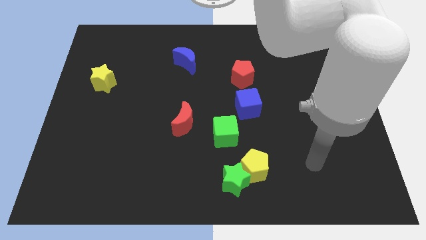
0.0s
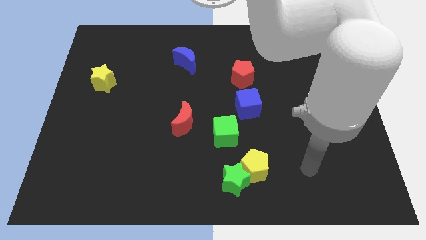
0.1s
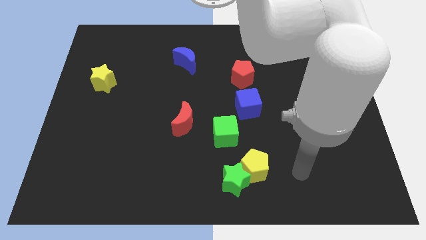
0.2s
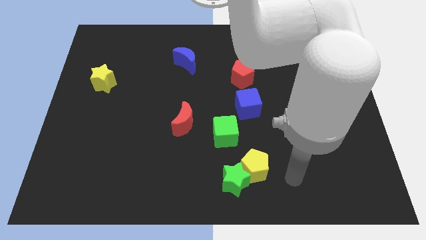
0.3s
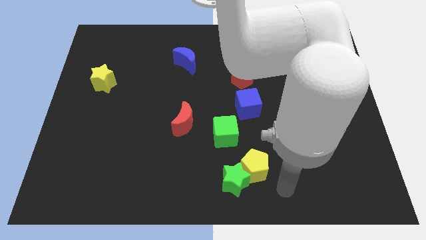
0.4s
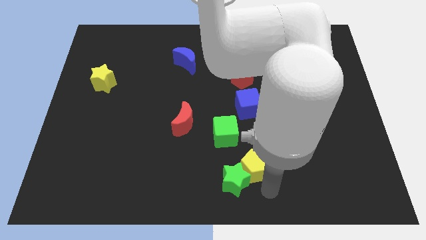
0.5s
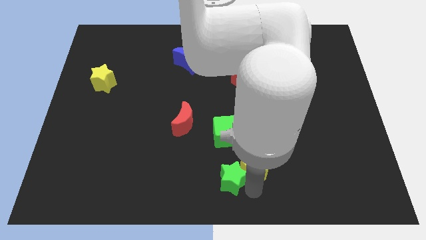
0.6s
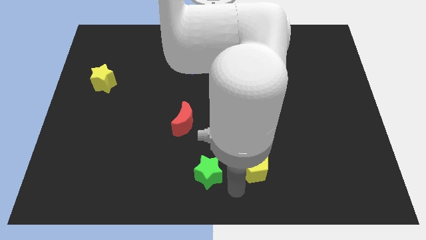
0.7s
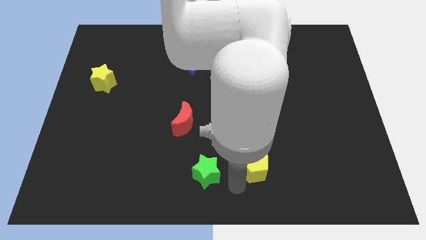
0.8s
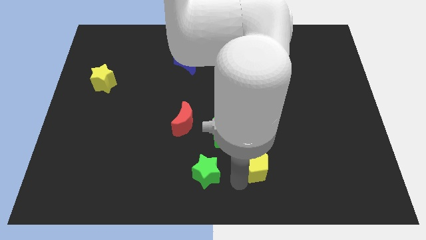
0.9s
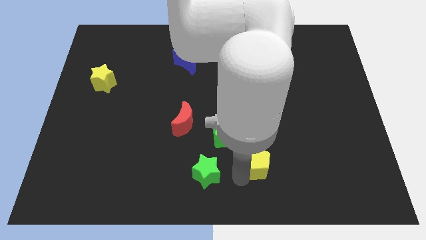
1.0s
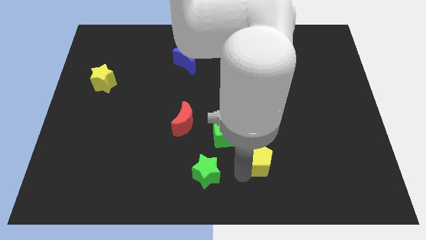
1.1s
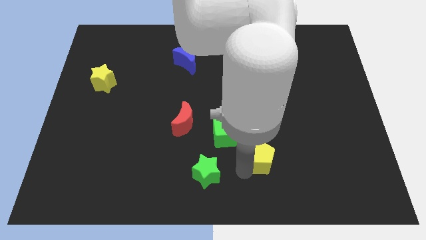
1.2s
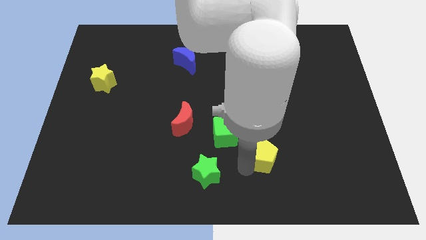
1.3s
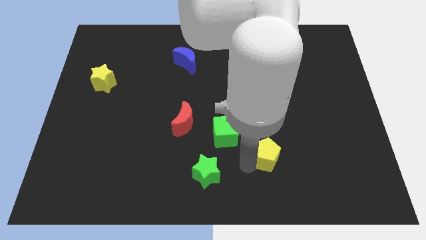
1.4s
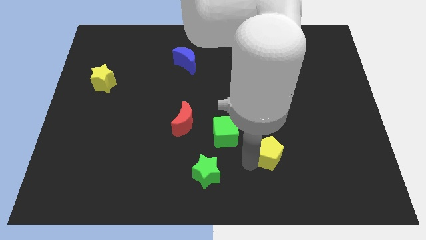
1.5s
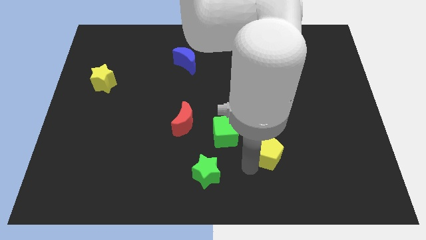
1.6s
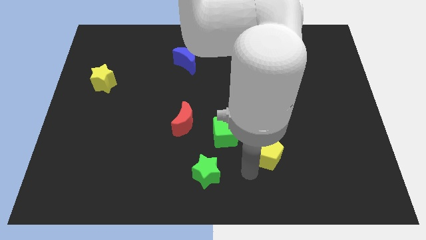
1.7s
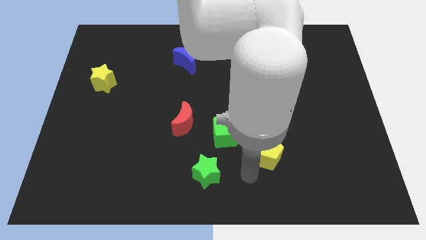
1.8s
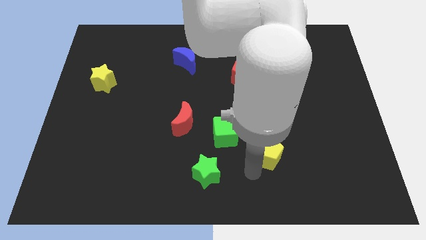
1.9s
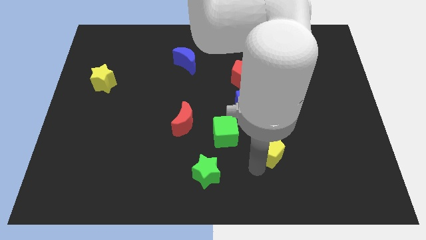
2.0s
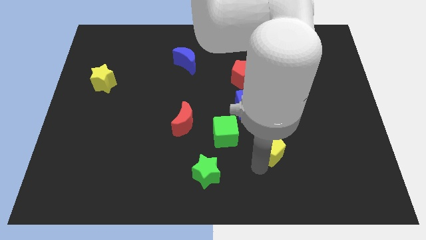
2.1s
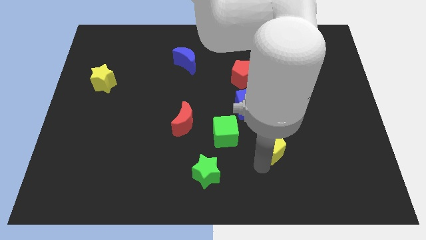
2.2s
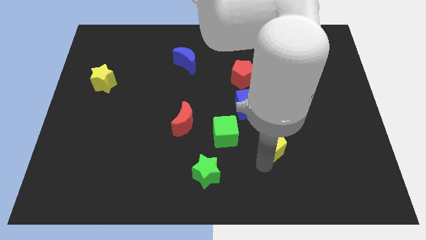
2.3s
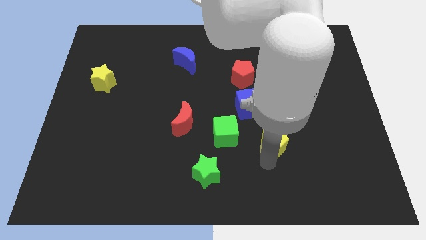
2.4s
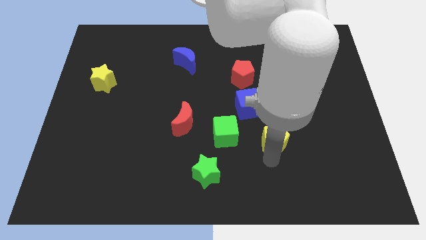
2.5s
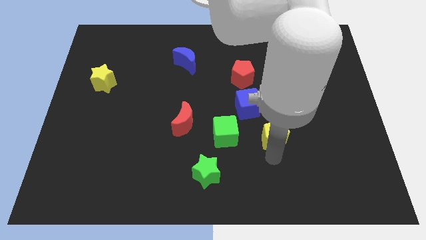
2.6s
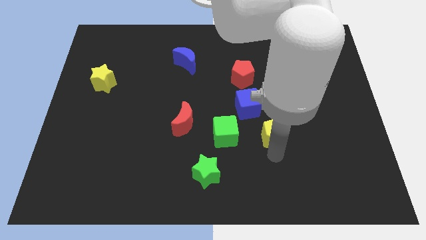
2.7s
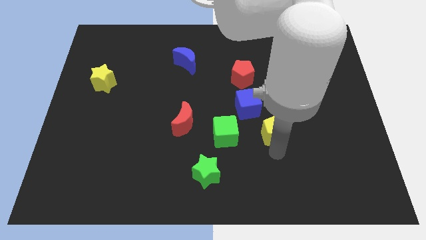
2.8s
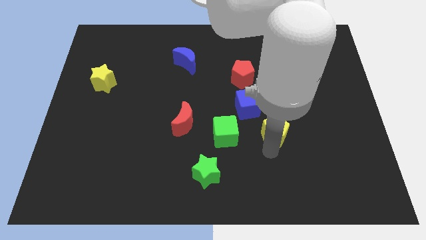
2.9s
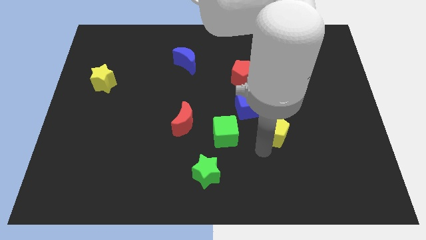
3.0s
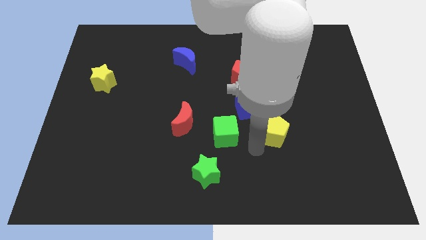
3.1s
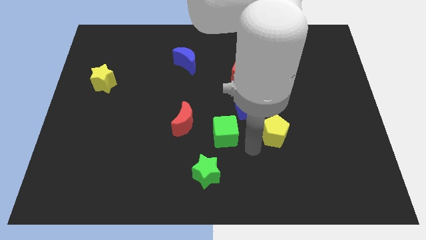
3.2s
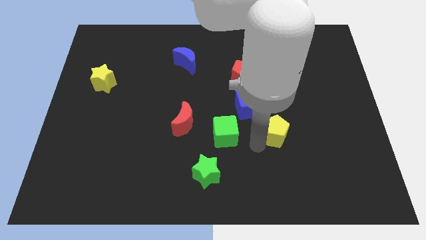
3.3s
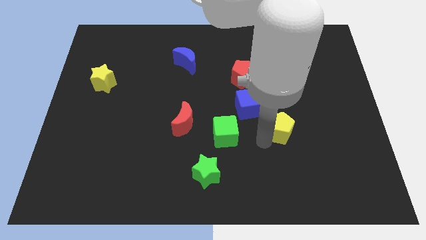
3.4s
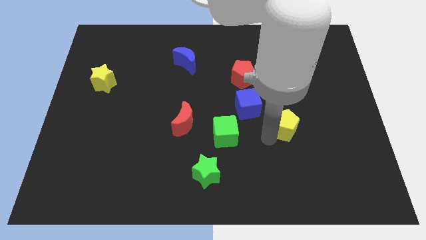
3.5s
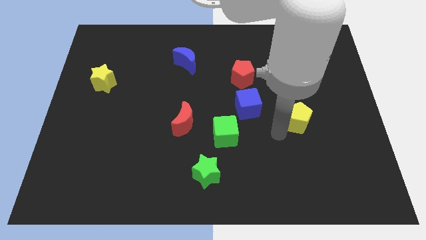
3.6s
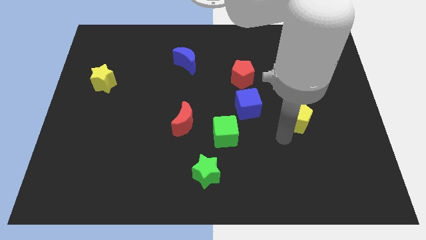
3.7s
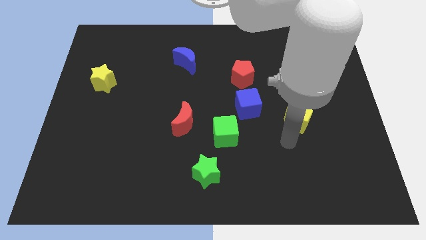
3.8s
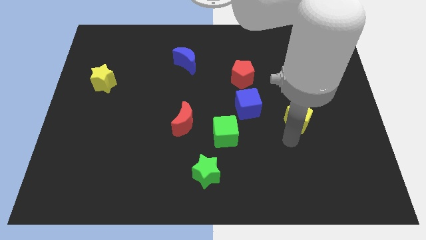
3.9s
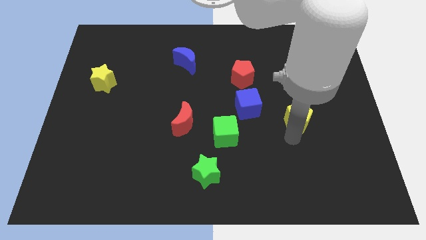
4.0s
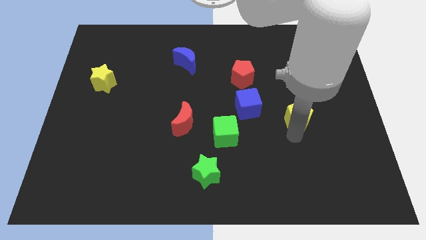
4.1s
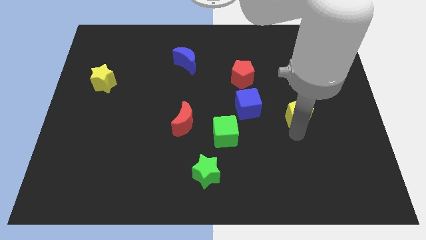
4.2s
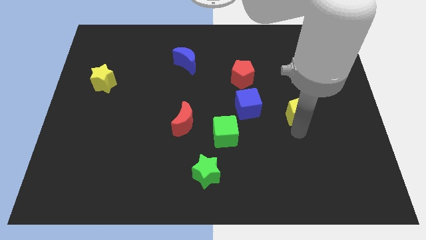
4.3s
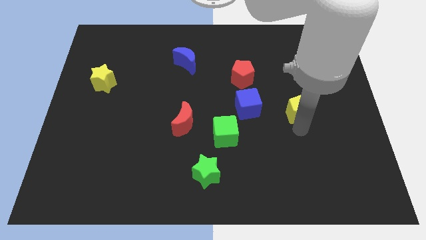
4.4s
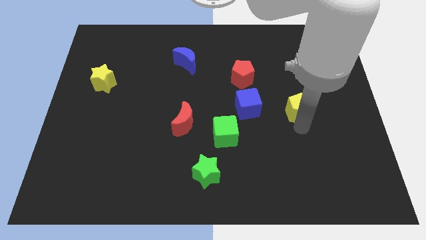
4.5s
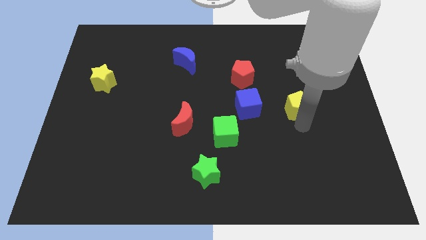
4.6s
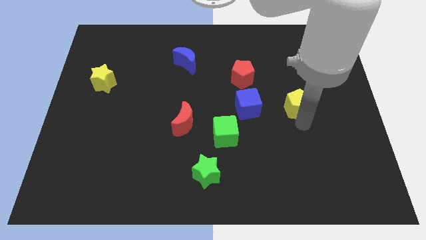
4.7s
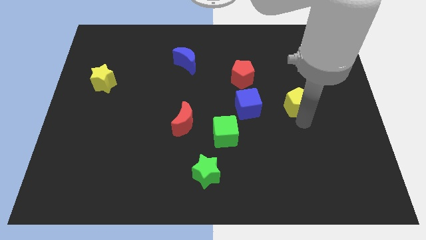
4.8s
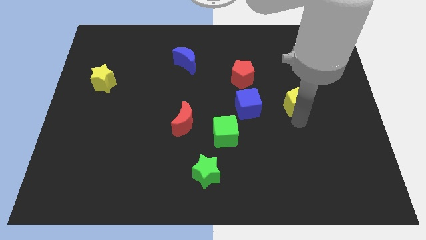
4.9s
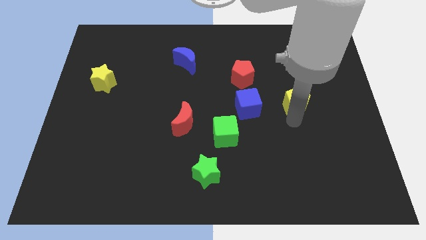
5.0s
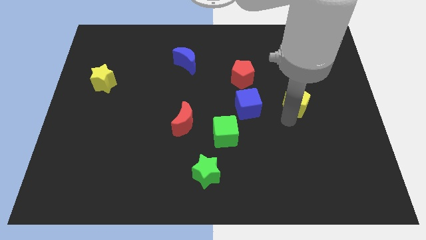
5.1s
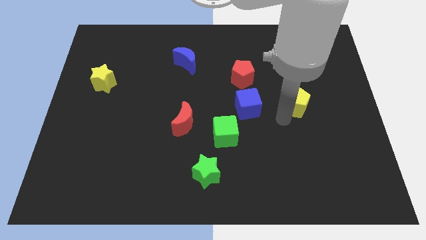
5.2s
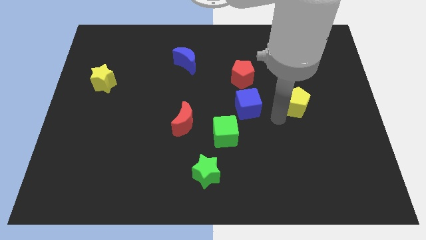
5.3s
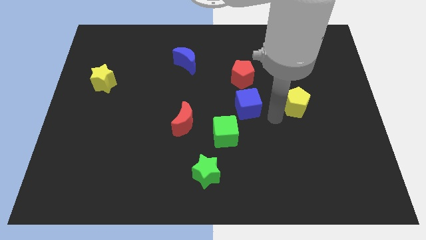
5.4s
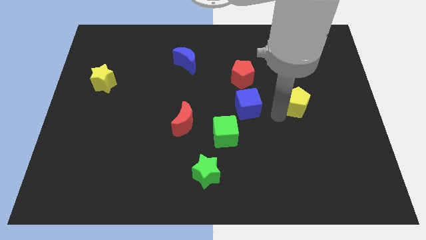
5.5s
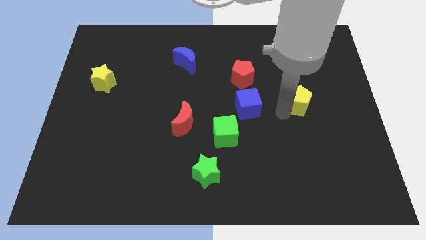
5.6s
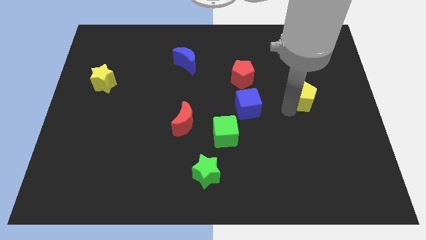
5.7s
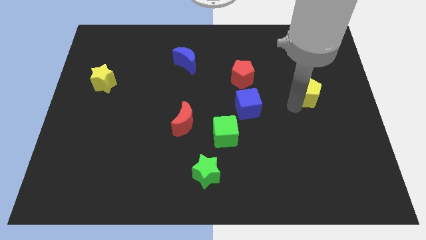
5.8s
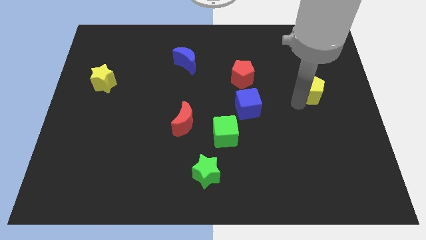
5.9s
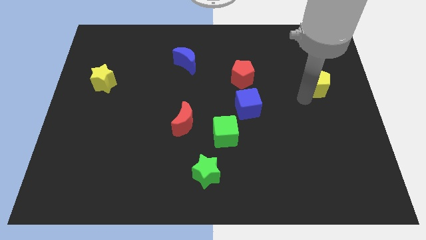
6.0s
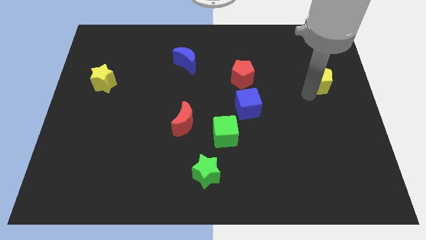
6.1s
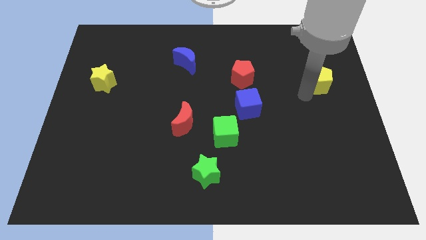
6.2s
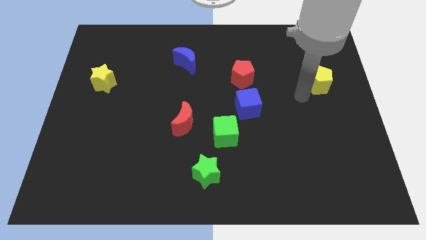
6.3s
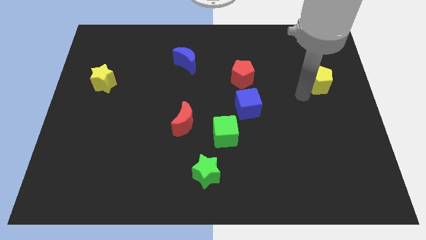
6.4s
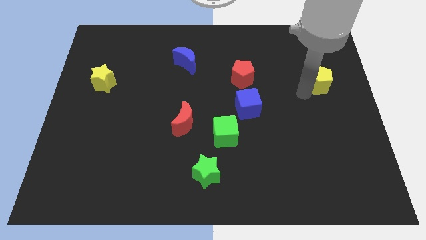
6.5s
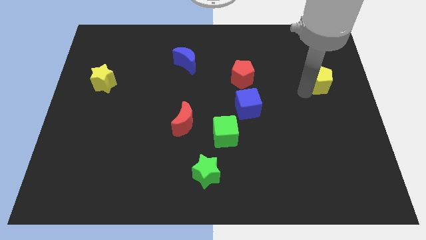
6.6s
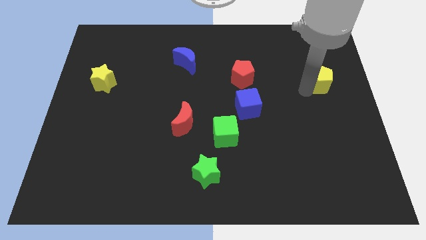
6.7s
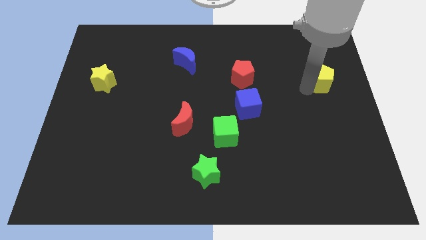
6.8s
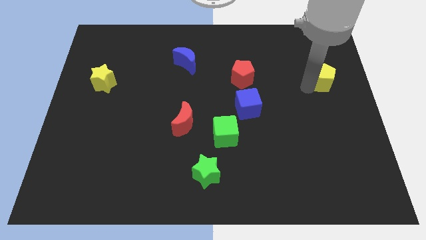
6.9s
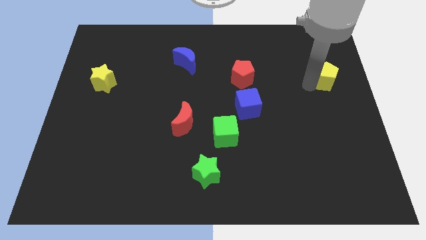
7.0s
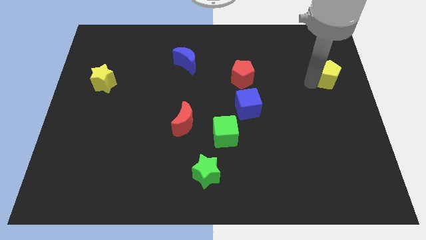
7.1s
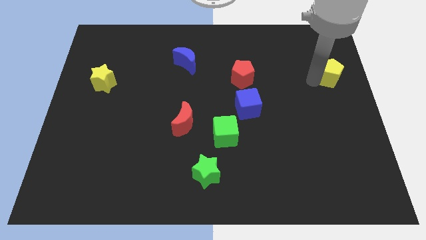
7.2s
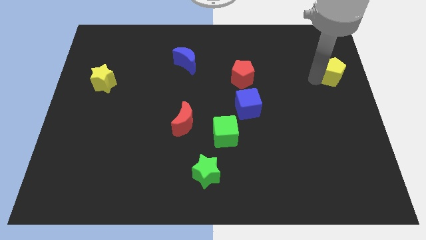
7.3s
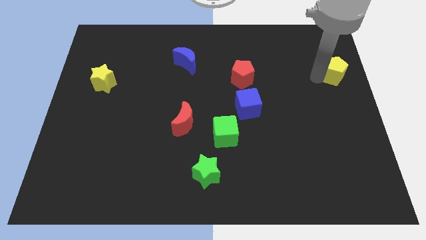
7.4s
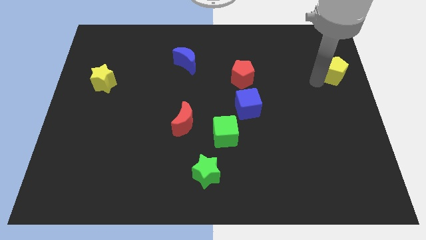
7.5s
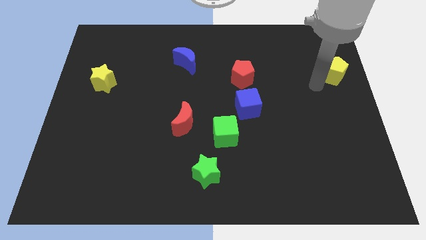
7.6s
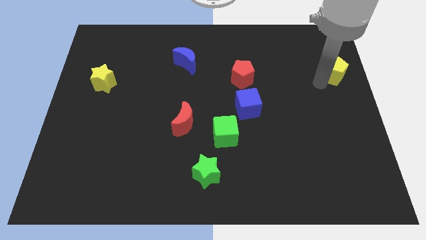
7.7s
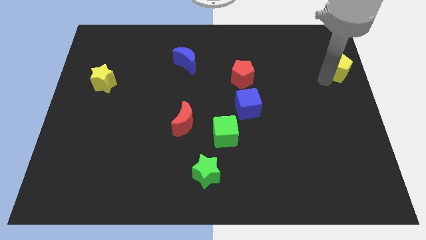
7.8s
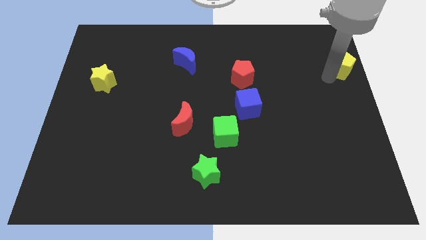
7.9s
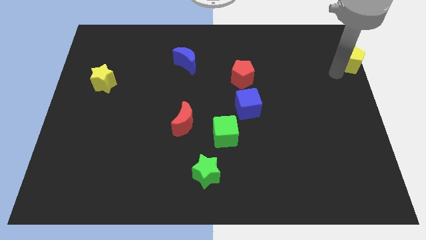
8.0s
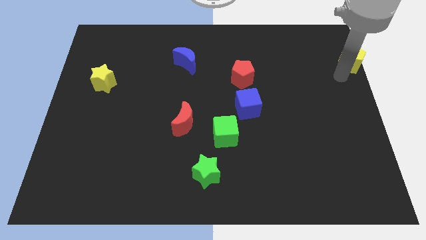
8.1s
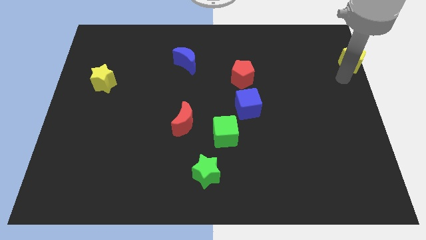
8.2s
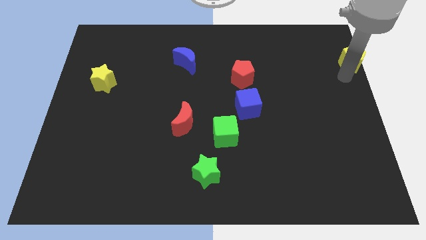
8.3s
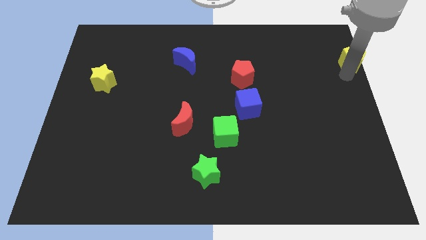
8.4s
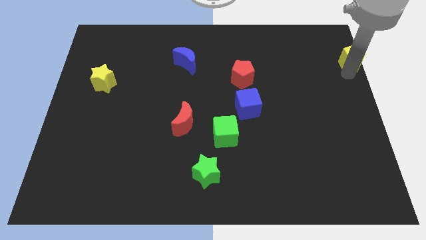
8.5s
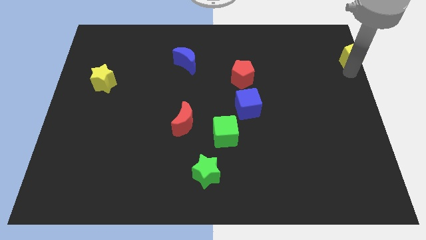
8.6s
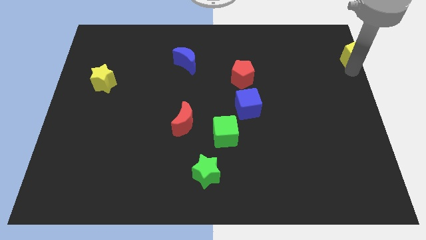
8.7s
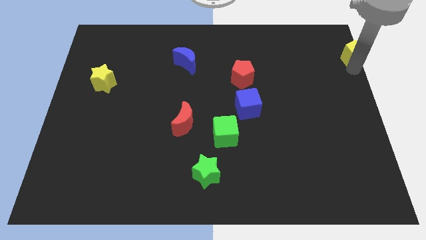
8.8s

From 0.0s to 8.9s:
push the yellow pentagon to the top right corner

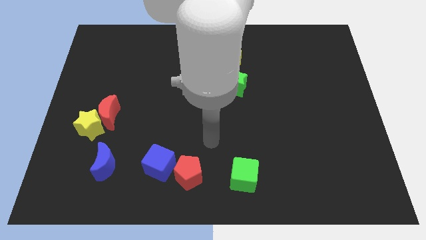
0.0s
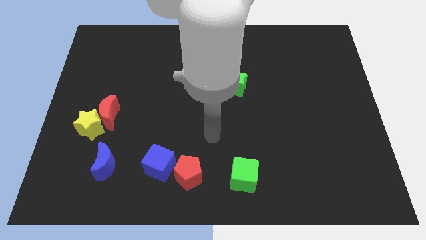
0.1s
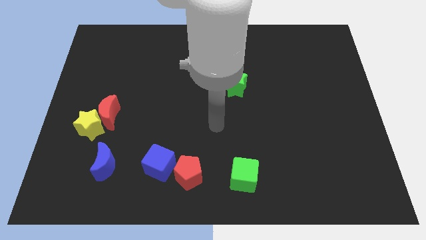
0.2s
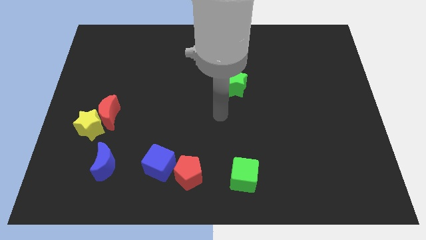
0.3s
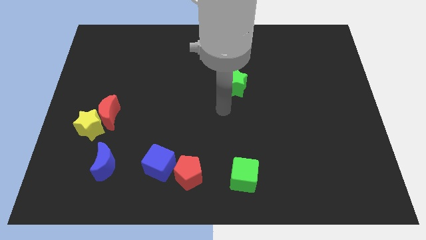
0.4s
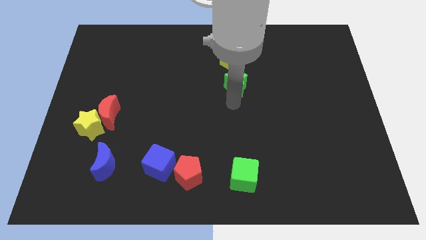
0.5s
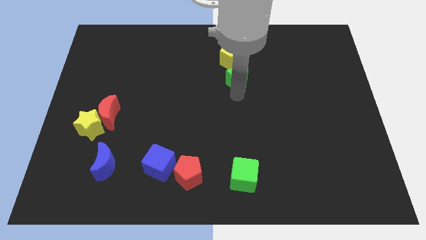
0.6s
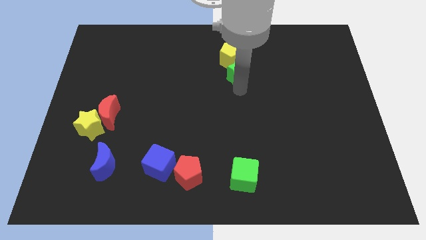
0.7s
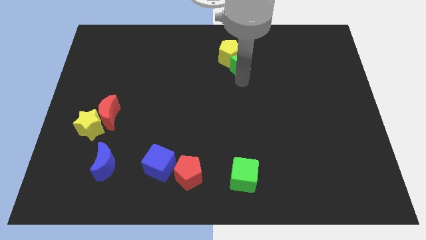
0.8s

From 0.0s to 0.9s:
put the yellow pentagon to the towards your base
